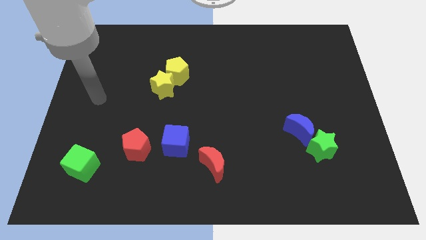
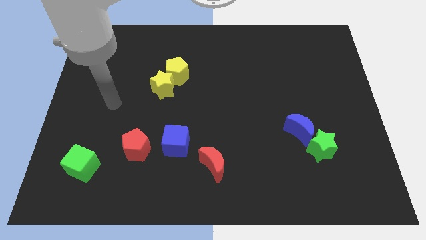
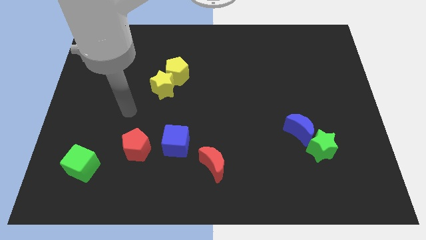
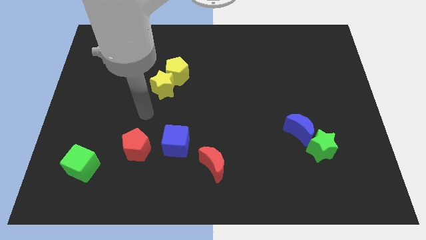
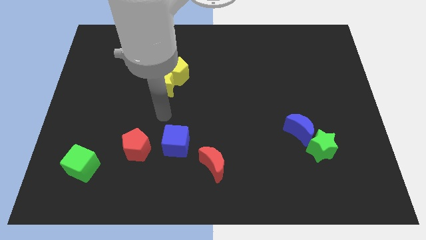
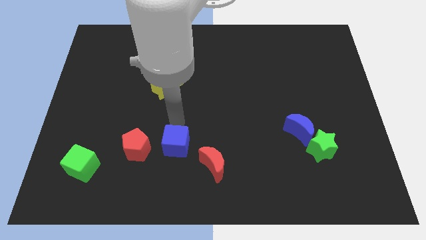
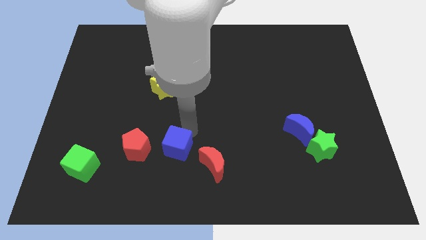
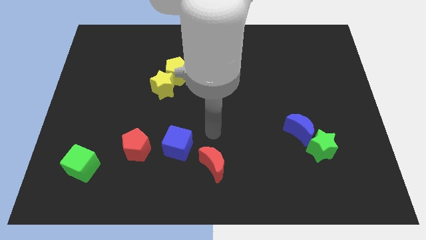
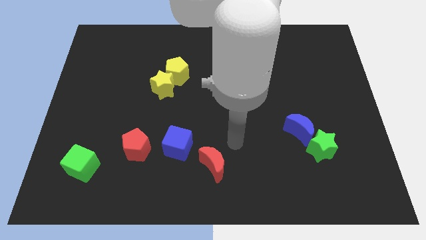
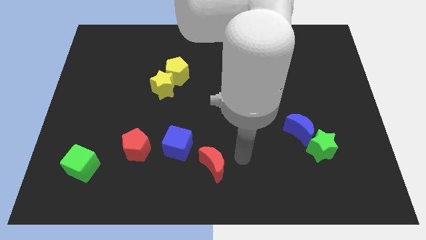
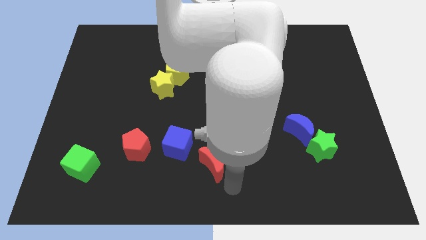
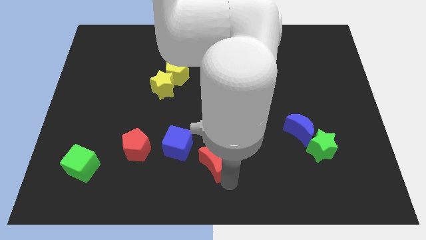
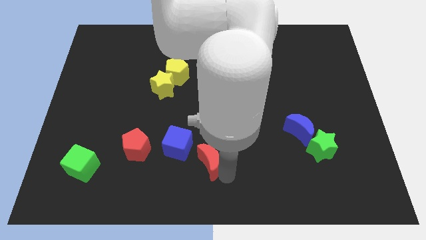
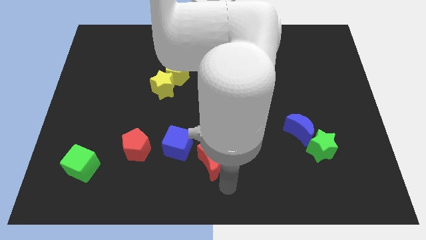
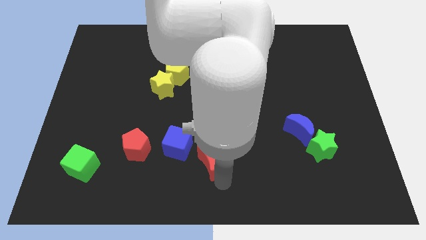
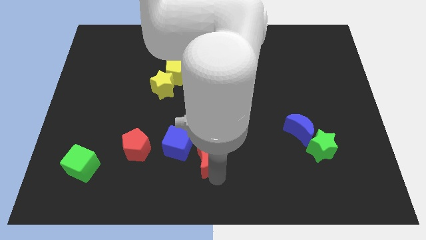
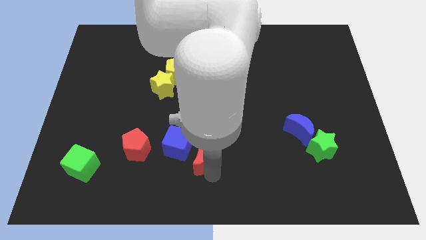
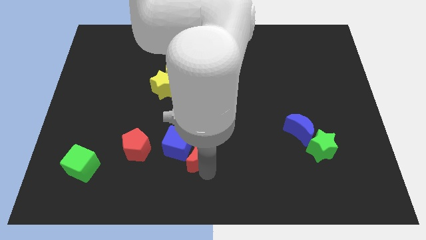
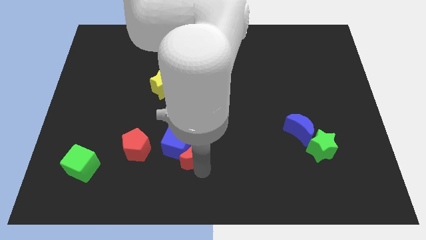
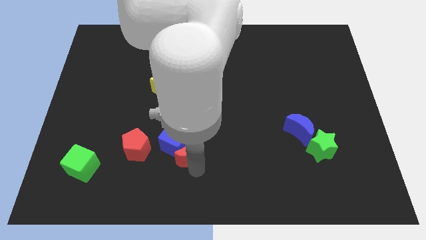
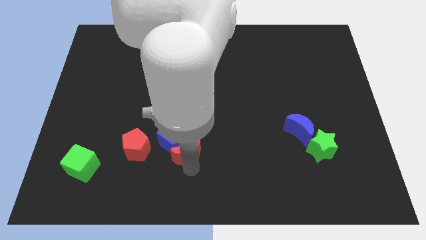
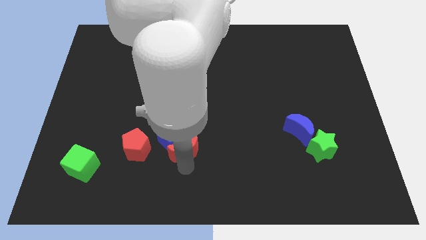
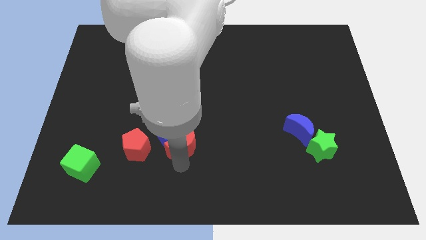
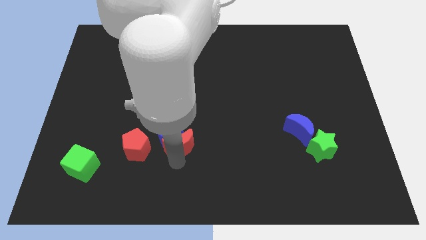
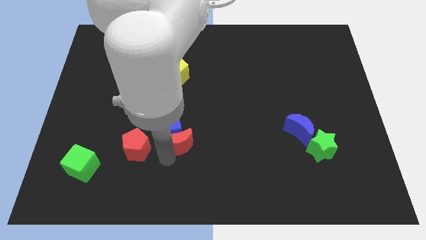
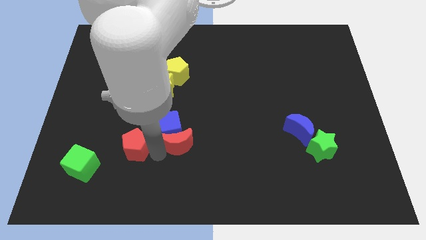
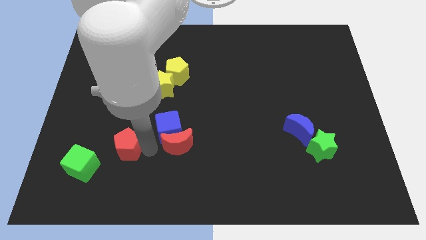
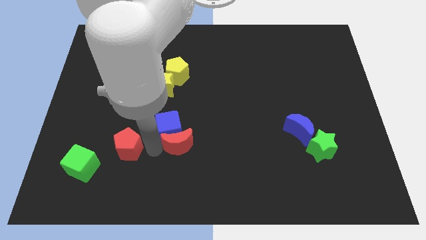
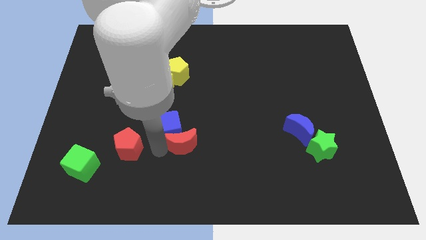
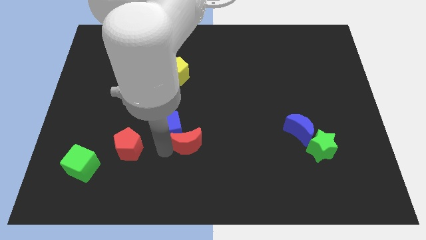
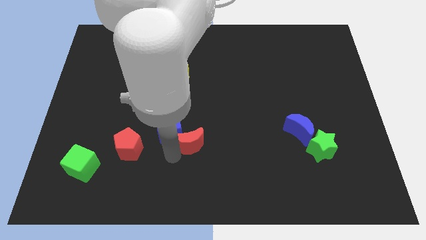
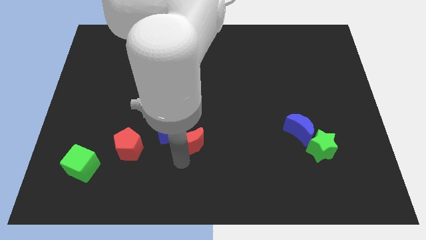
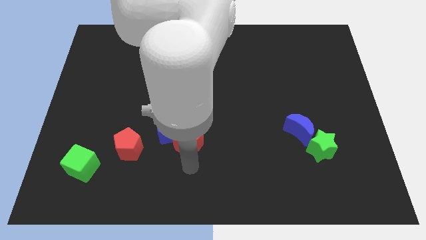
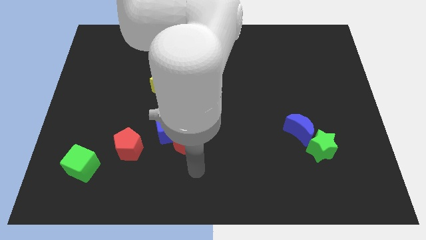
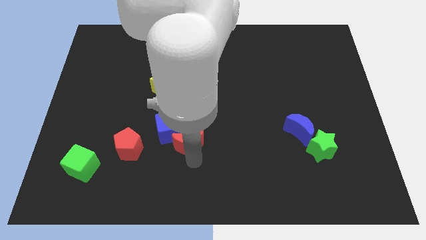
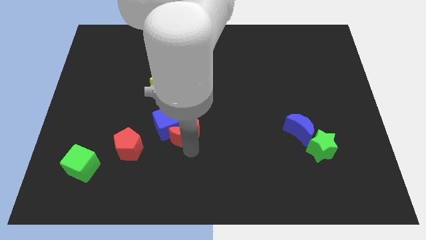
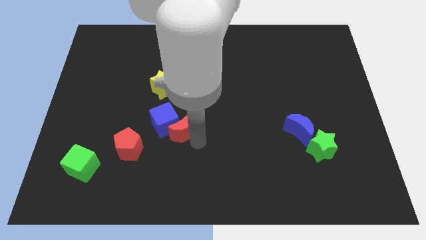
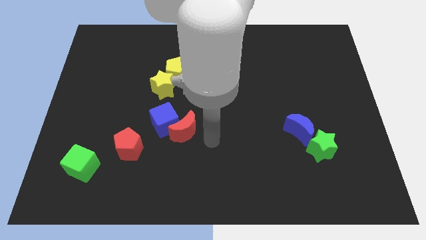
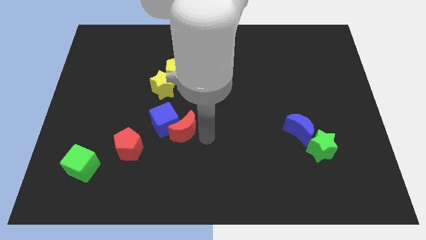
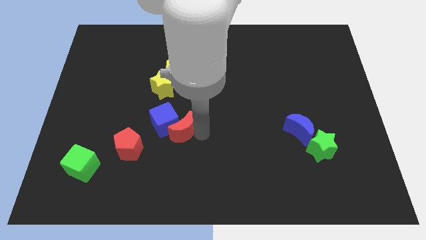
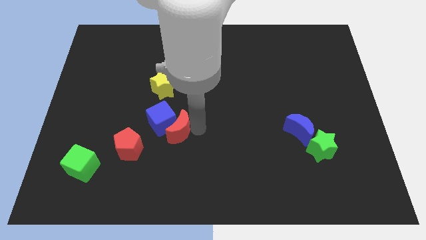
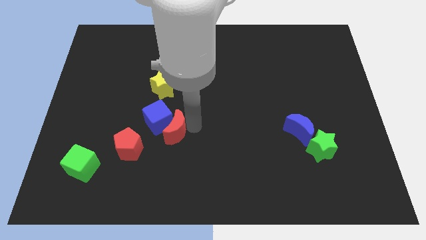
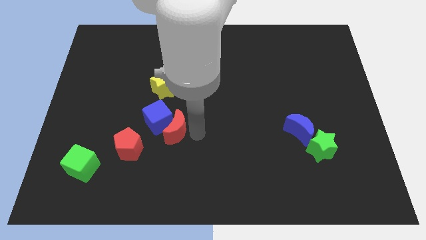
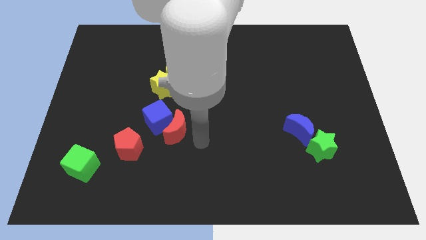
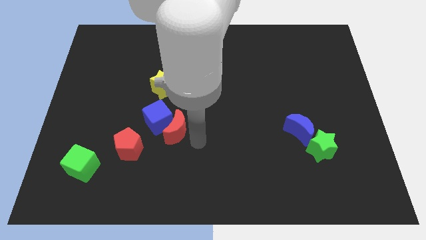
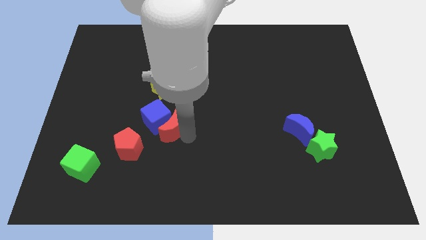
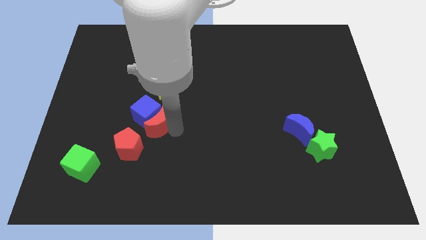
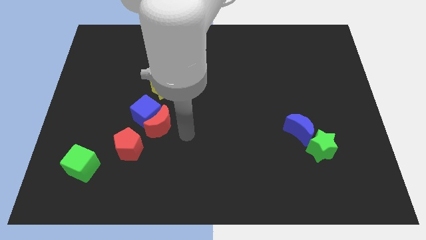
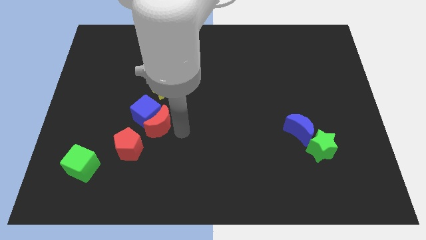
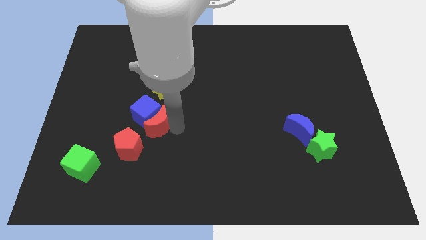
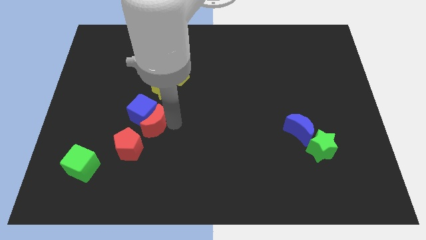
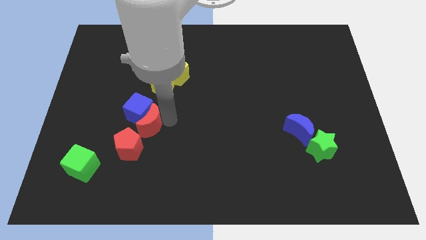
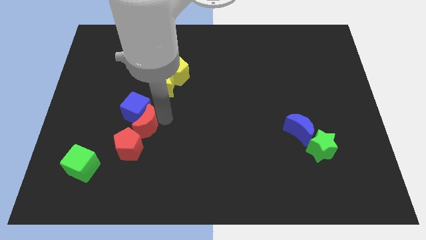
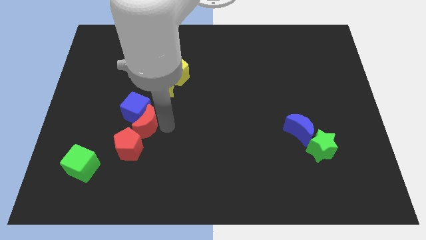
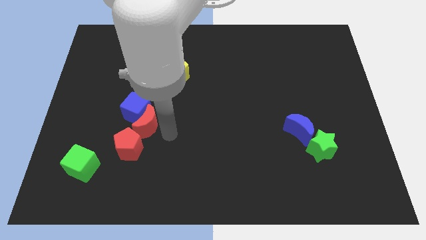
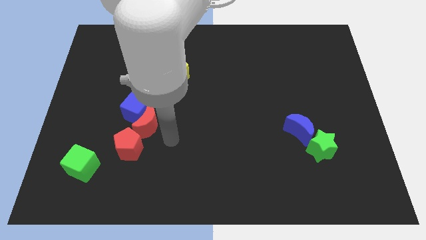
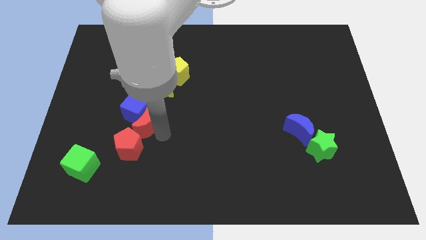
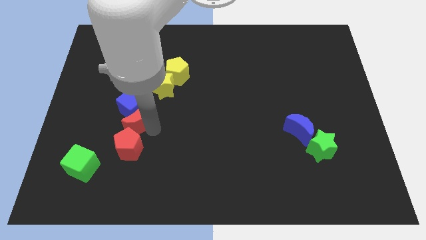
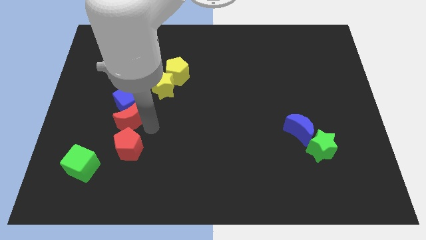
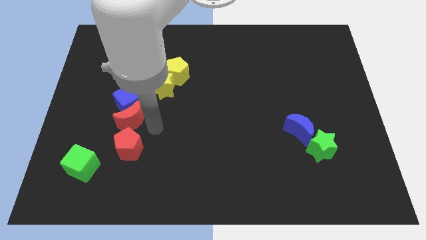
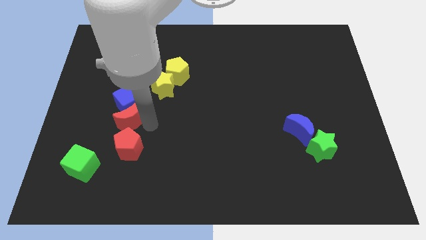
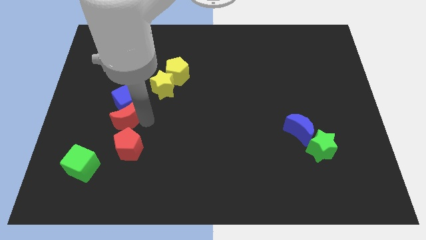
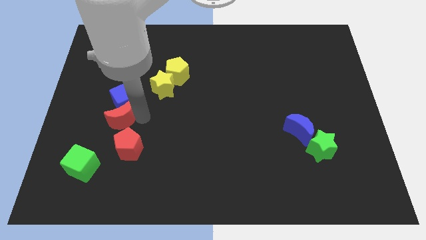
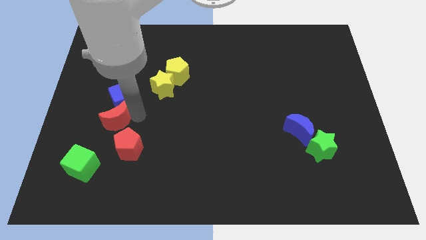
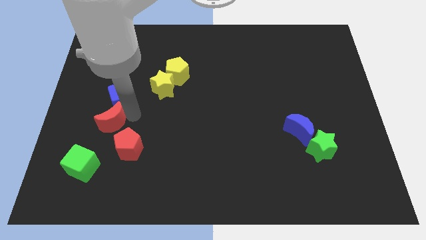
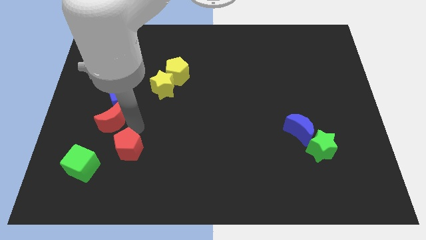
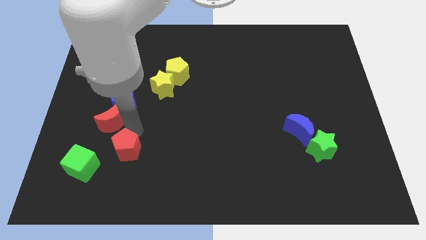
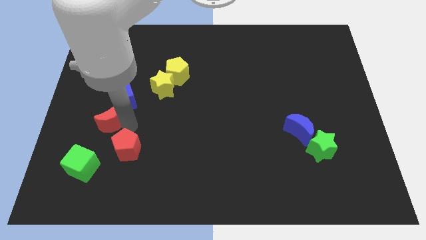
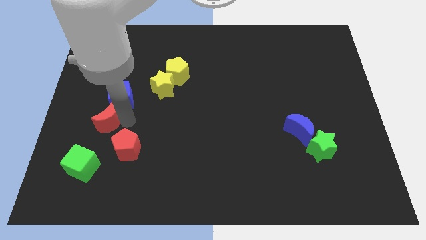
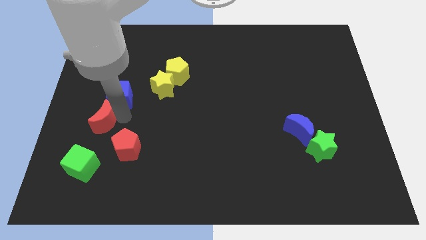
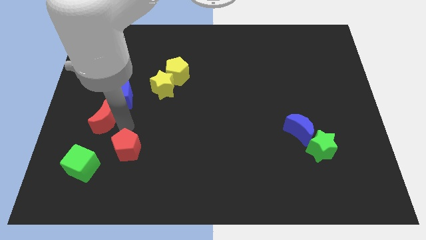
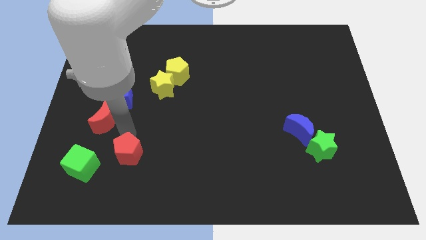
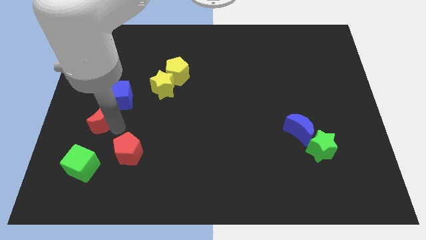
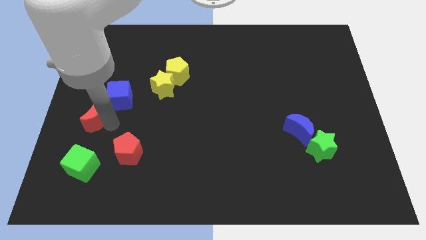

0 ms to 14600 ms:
slide the red moon to the left side
